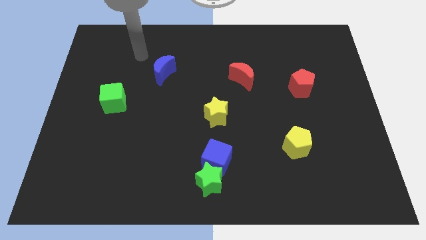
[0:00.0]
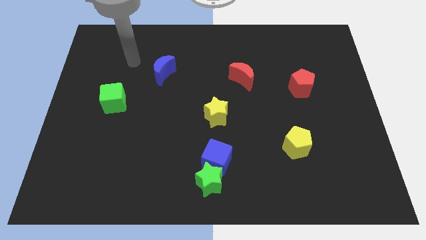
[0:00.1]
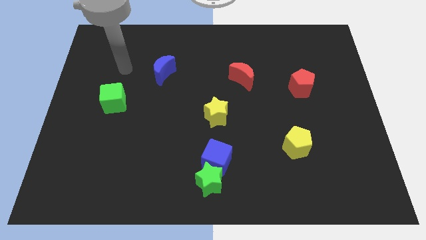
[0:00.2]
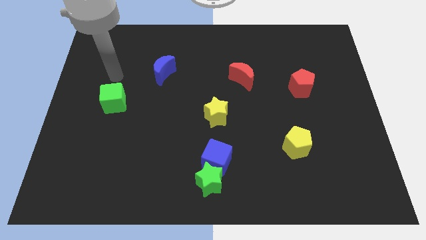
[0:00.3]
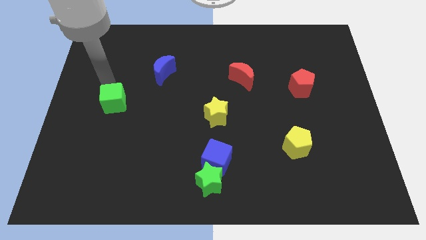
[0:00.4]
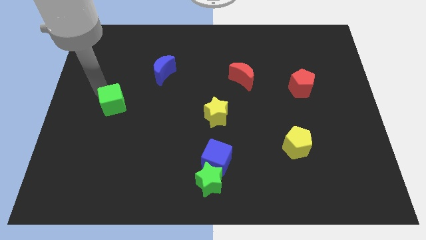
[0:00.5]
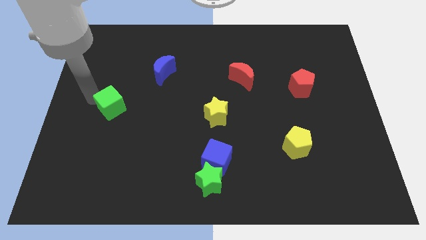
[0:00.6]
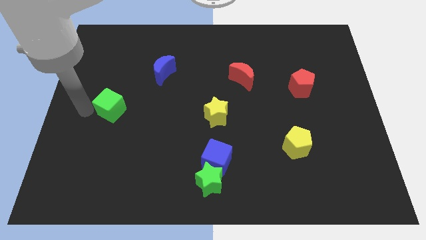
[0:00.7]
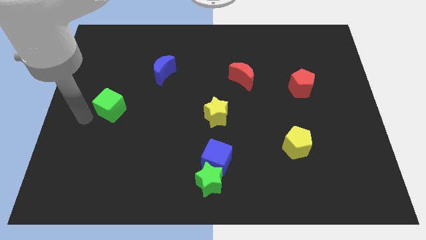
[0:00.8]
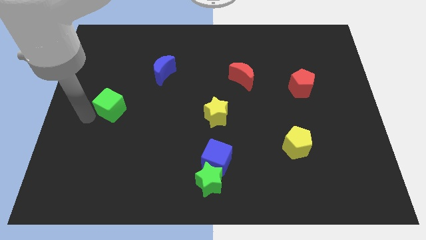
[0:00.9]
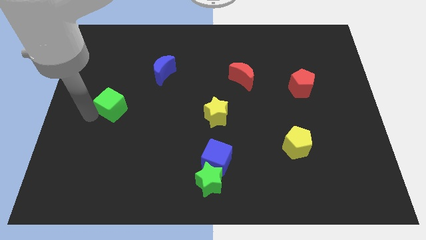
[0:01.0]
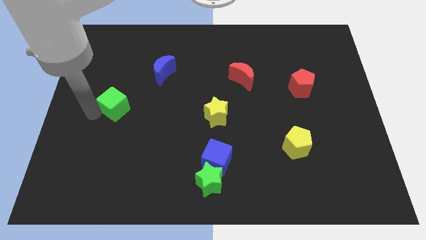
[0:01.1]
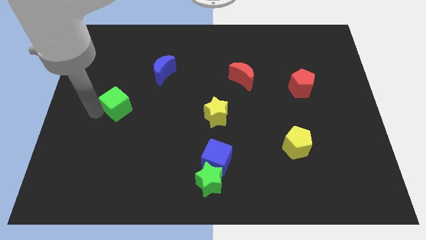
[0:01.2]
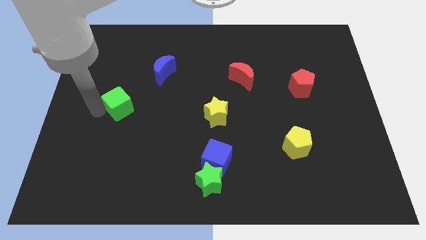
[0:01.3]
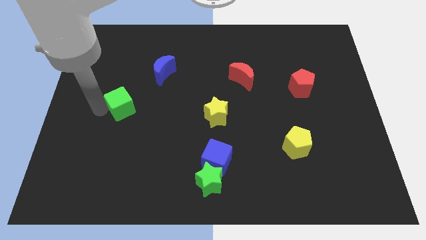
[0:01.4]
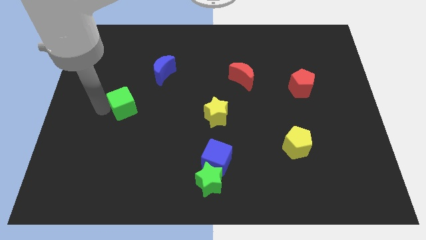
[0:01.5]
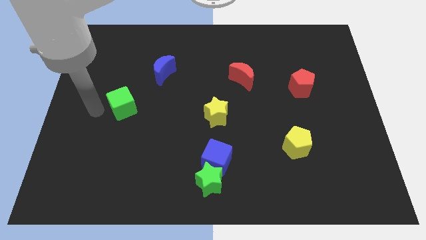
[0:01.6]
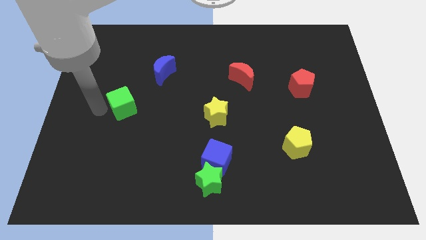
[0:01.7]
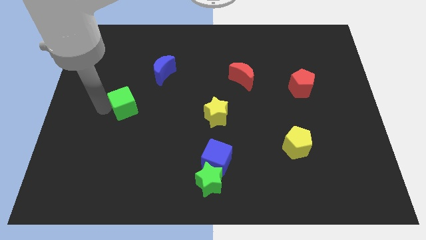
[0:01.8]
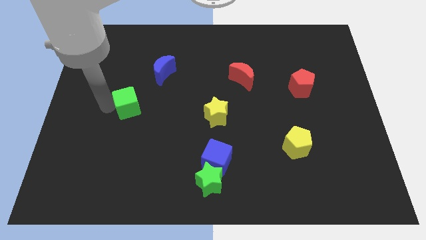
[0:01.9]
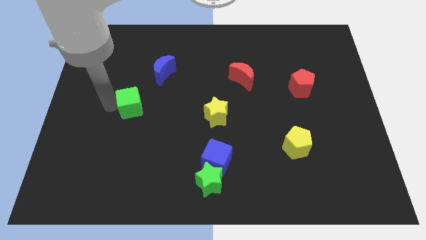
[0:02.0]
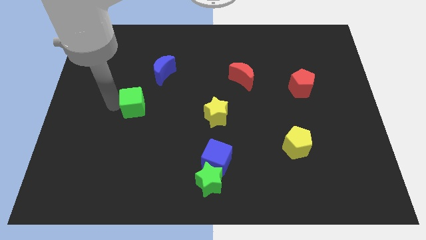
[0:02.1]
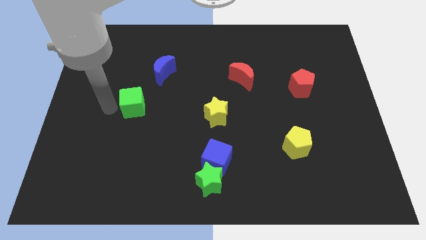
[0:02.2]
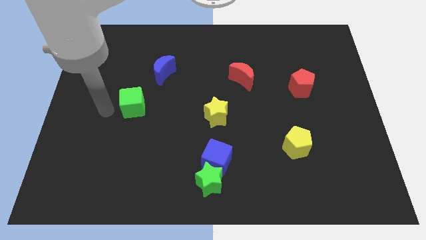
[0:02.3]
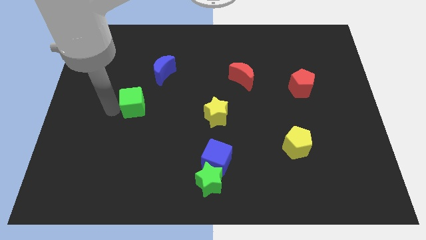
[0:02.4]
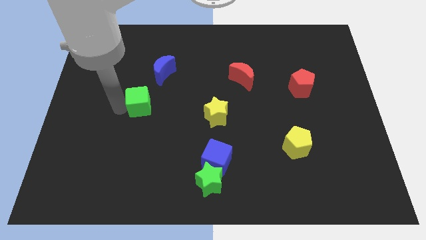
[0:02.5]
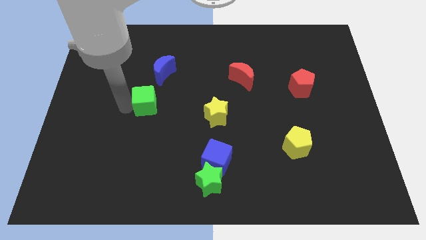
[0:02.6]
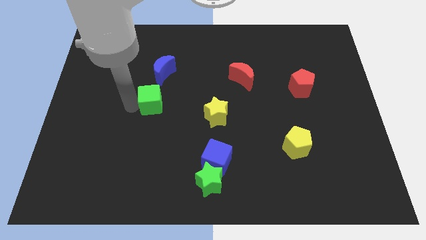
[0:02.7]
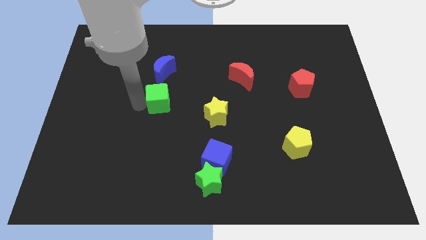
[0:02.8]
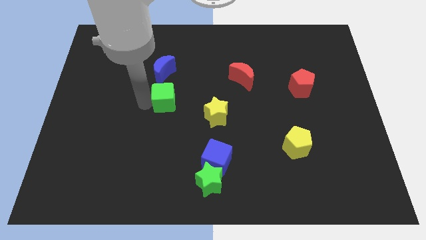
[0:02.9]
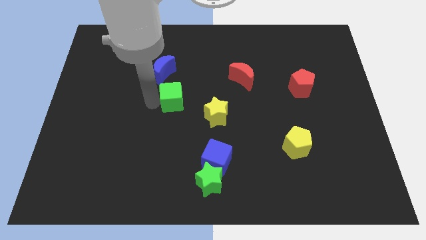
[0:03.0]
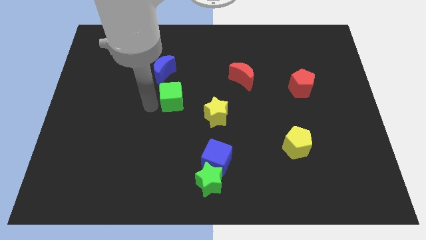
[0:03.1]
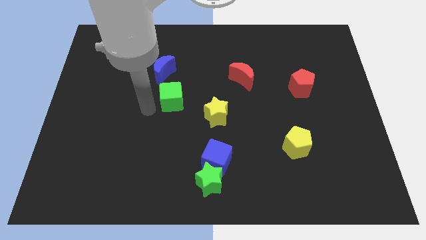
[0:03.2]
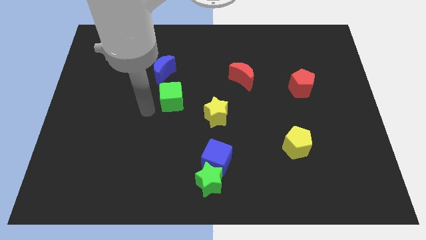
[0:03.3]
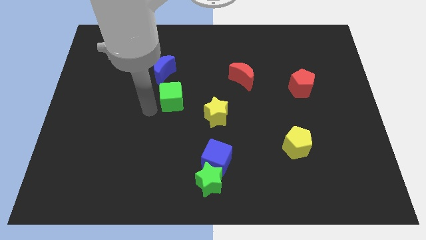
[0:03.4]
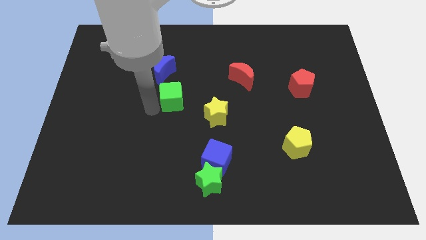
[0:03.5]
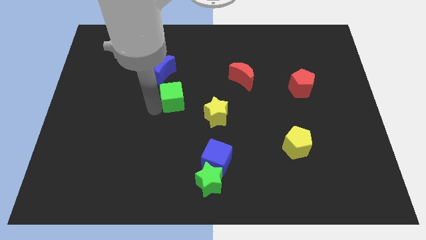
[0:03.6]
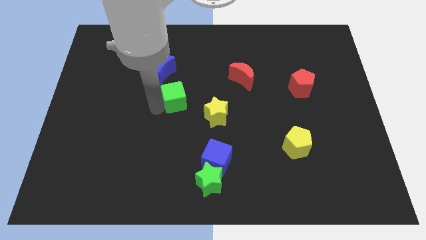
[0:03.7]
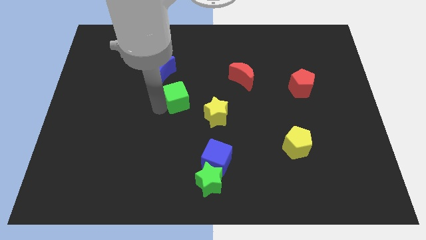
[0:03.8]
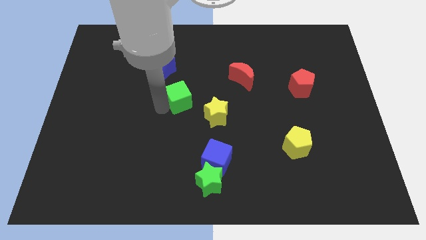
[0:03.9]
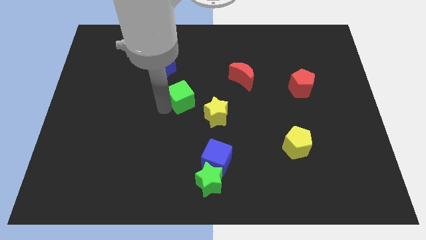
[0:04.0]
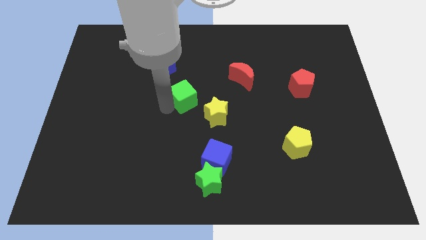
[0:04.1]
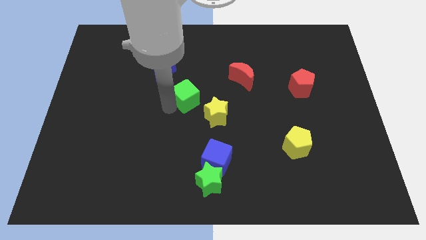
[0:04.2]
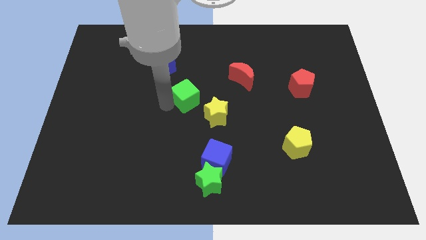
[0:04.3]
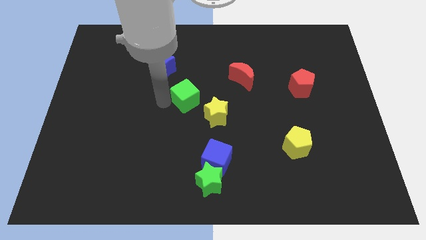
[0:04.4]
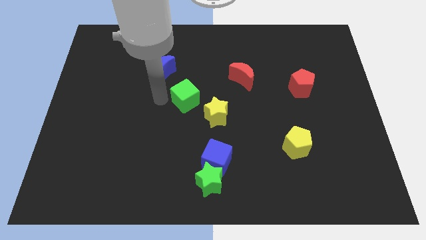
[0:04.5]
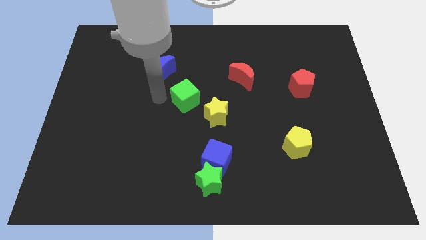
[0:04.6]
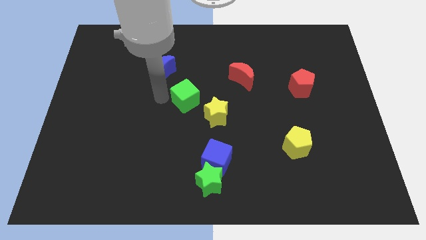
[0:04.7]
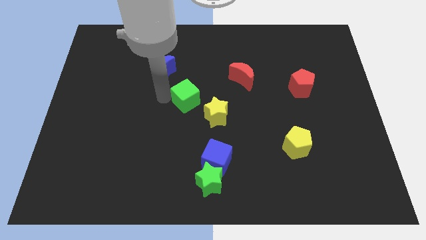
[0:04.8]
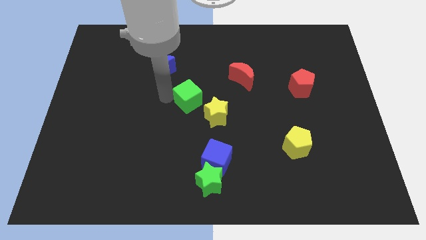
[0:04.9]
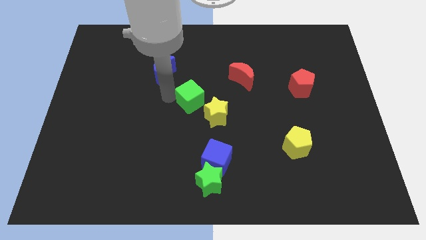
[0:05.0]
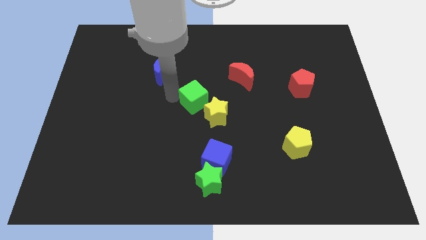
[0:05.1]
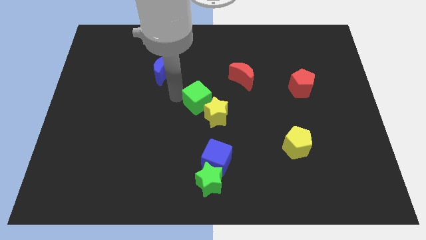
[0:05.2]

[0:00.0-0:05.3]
push the green cube to the right

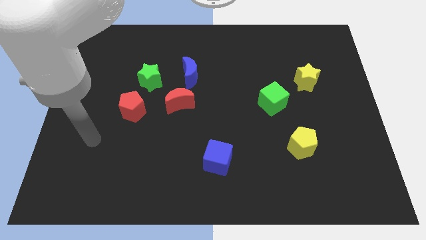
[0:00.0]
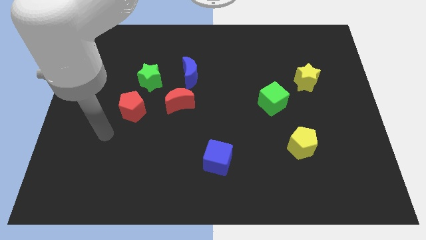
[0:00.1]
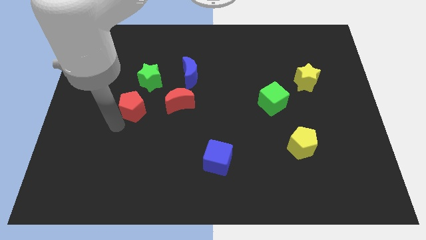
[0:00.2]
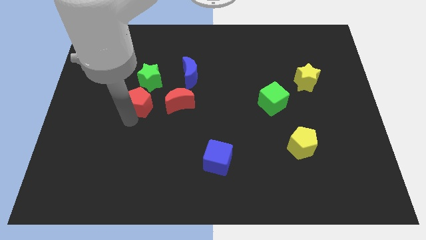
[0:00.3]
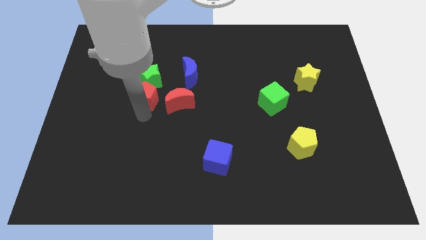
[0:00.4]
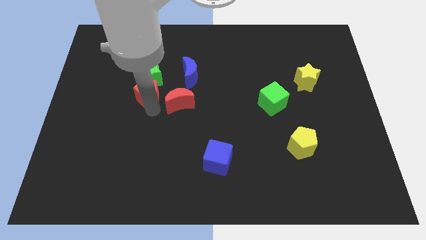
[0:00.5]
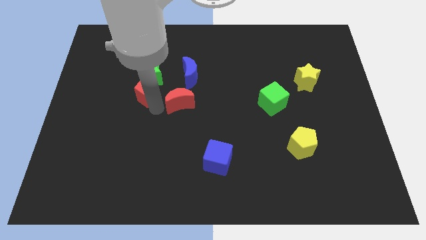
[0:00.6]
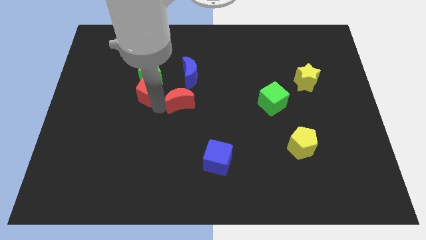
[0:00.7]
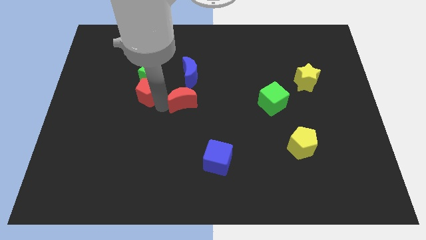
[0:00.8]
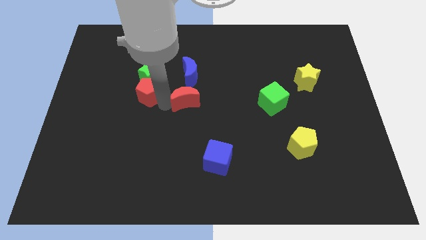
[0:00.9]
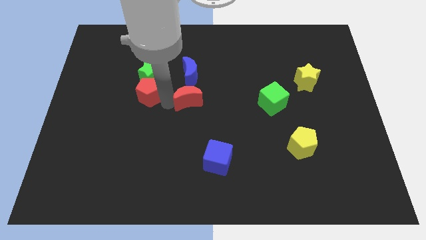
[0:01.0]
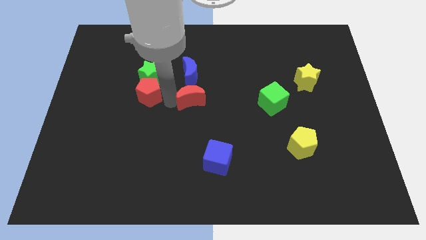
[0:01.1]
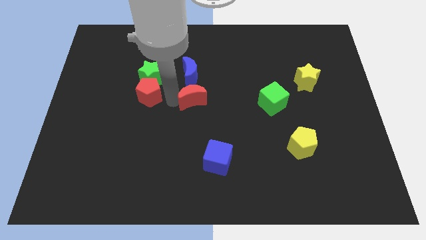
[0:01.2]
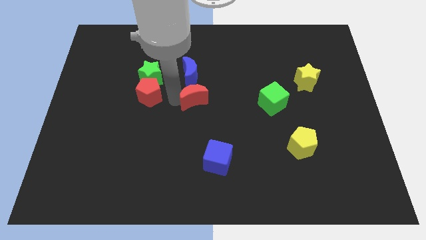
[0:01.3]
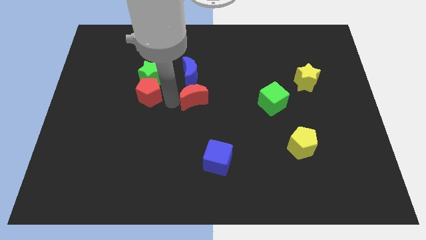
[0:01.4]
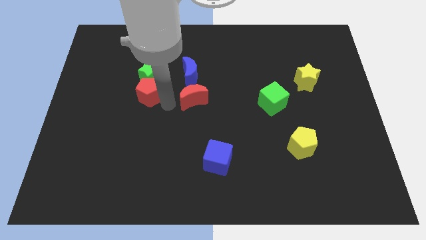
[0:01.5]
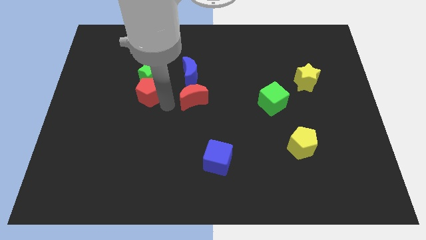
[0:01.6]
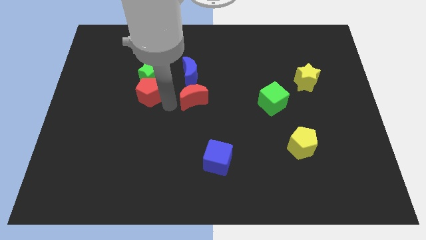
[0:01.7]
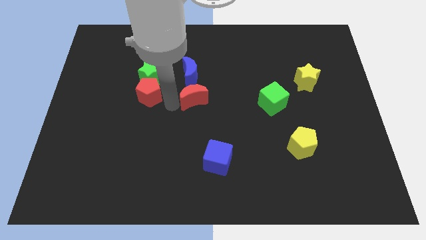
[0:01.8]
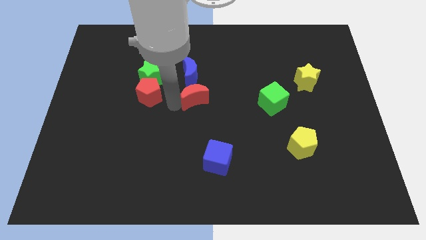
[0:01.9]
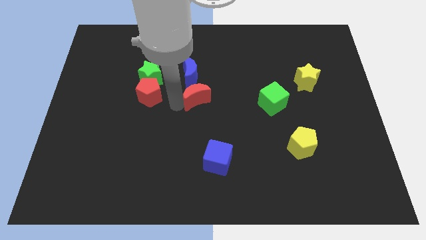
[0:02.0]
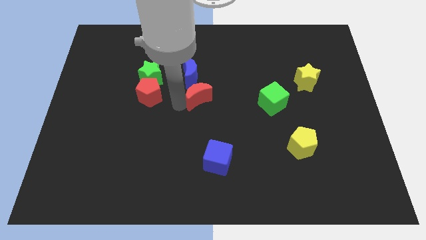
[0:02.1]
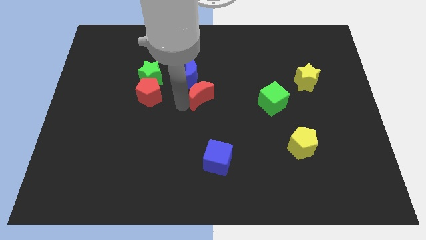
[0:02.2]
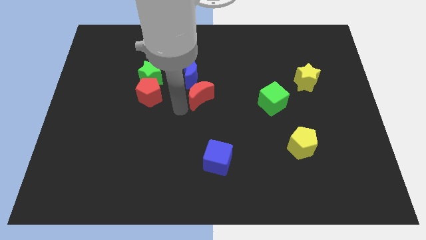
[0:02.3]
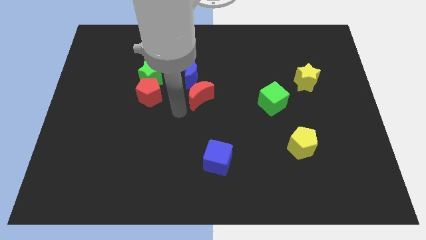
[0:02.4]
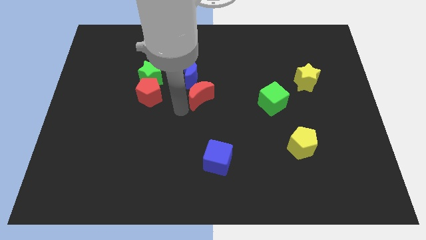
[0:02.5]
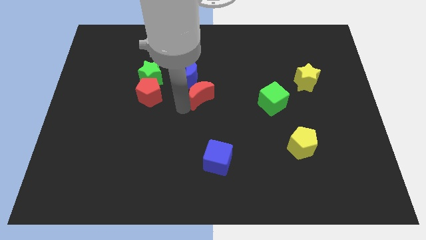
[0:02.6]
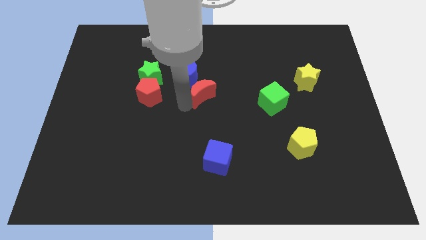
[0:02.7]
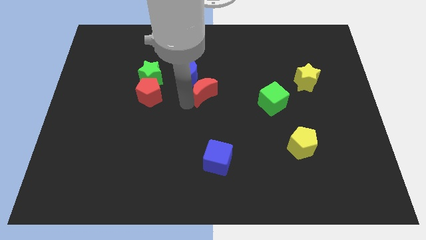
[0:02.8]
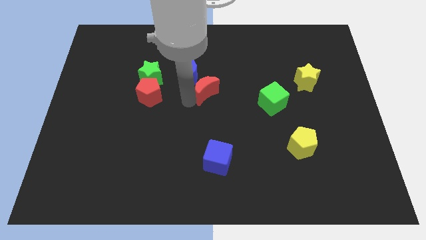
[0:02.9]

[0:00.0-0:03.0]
slightly slide the red moon up and then right
